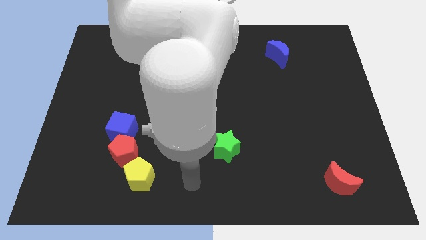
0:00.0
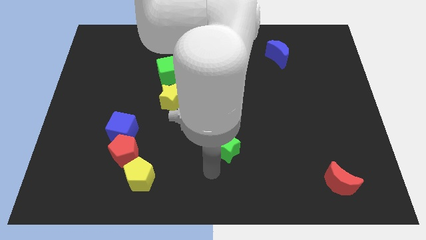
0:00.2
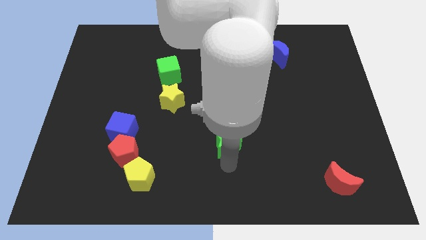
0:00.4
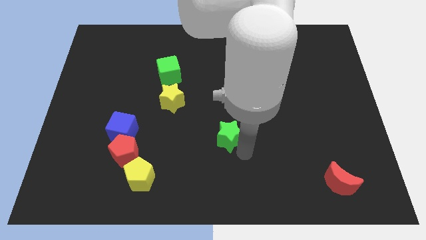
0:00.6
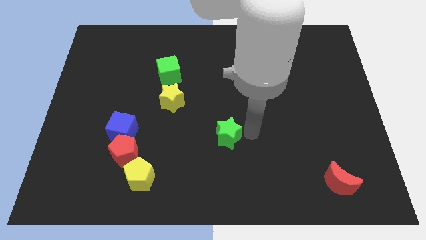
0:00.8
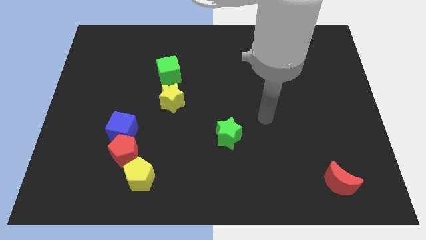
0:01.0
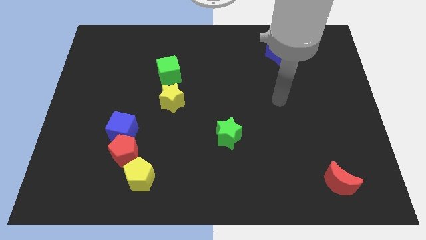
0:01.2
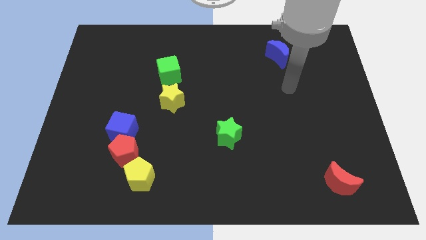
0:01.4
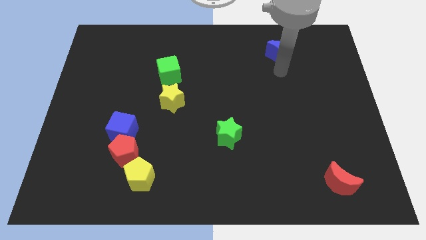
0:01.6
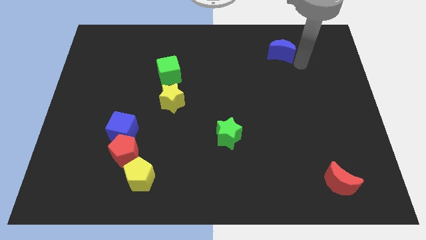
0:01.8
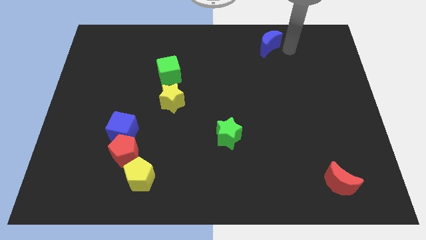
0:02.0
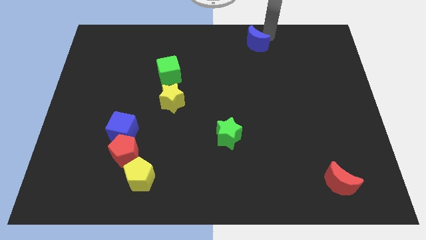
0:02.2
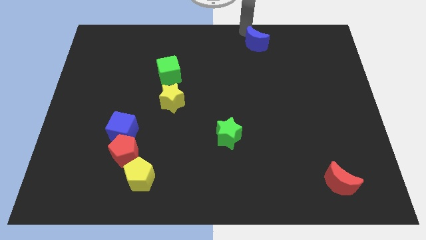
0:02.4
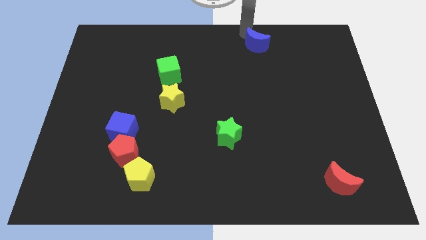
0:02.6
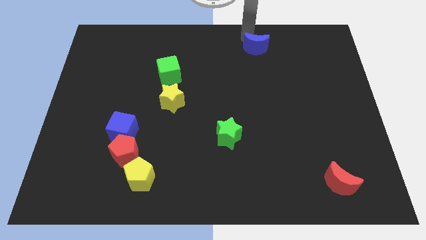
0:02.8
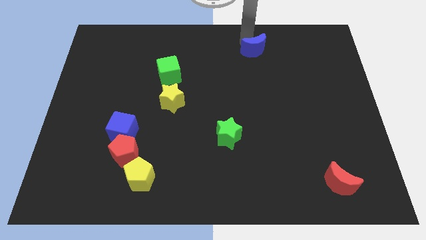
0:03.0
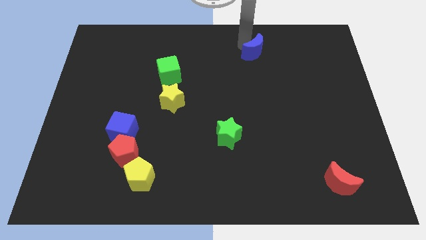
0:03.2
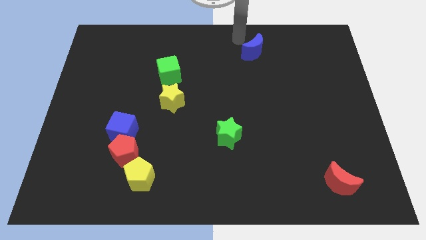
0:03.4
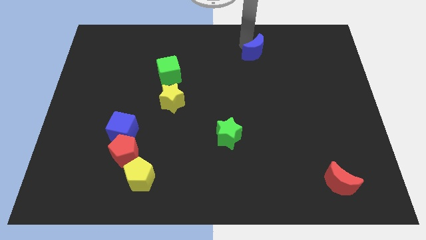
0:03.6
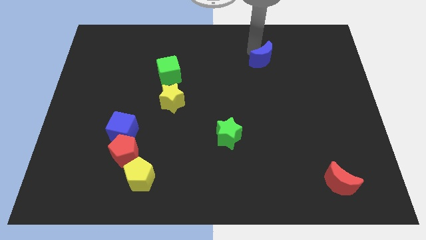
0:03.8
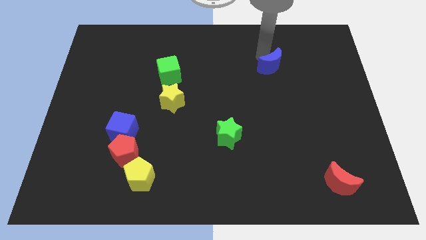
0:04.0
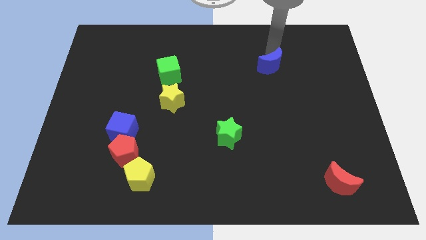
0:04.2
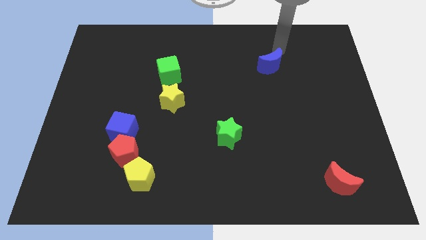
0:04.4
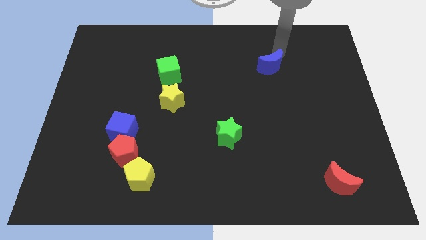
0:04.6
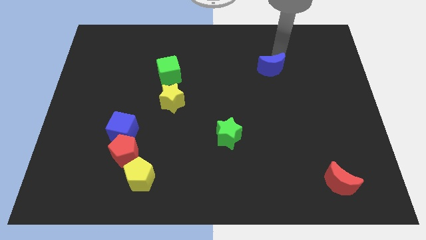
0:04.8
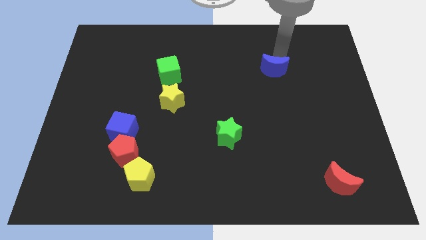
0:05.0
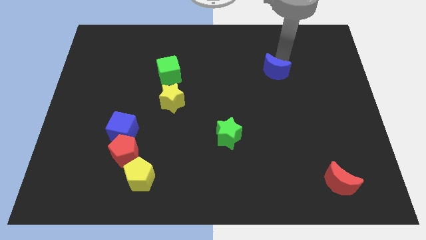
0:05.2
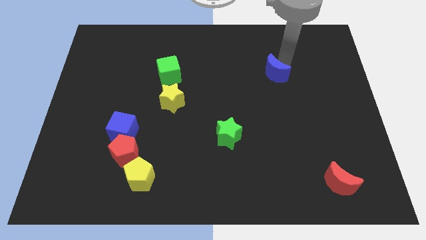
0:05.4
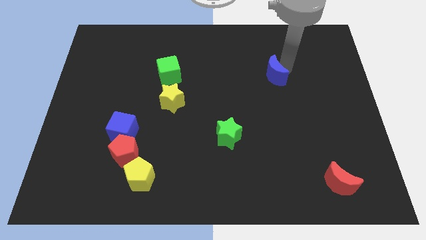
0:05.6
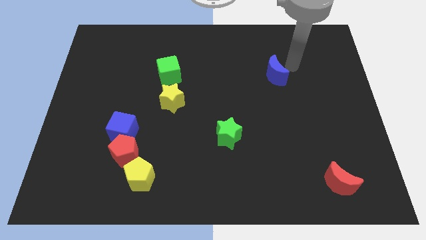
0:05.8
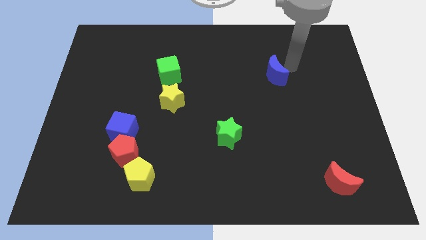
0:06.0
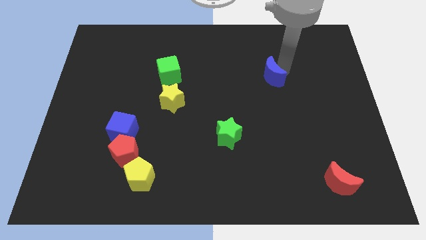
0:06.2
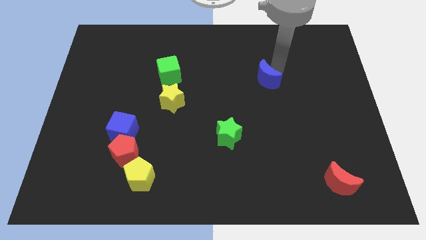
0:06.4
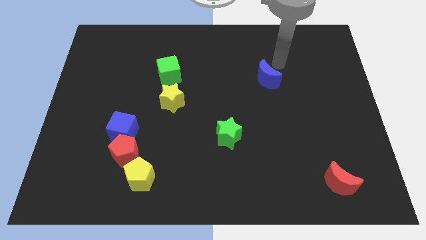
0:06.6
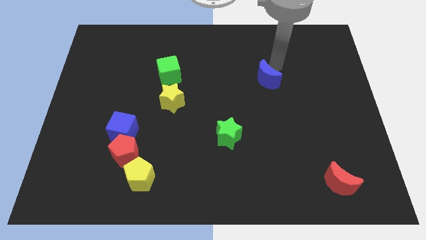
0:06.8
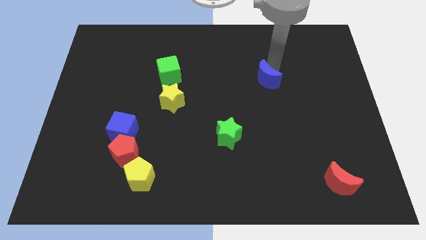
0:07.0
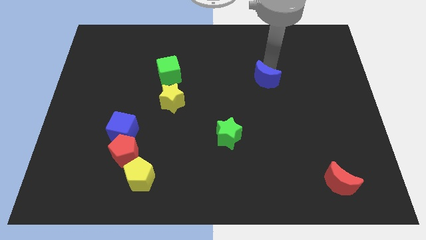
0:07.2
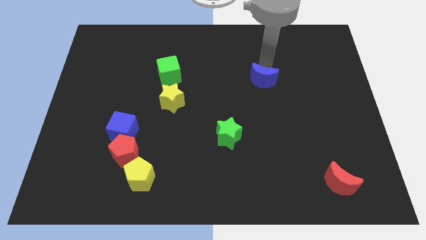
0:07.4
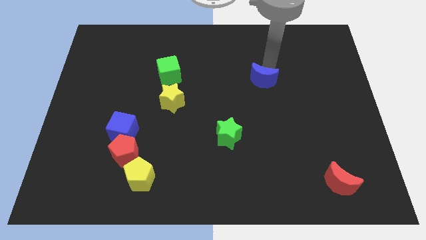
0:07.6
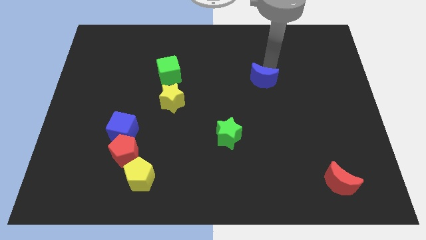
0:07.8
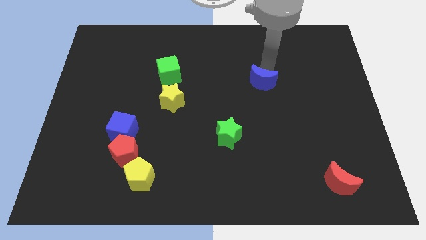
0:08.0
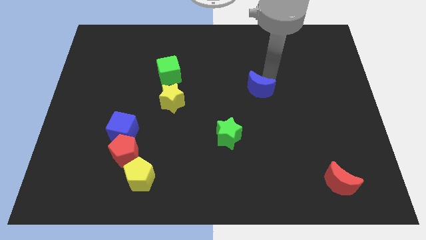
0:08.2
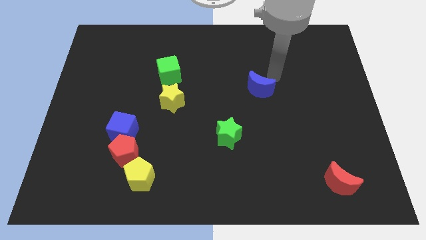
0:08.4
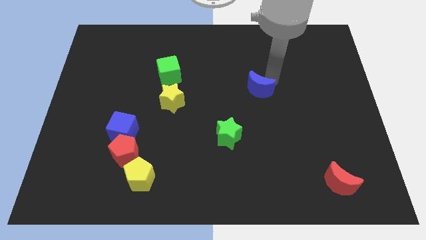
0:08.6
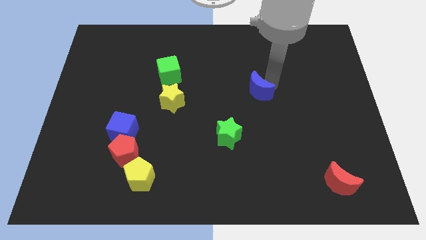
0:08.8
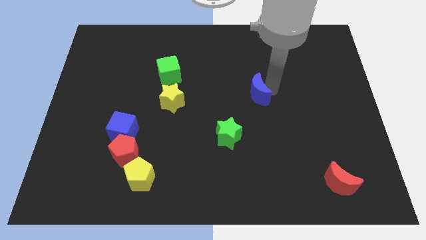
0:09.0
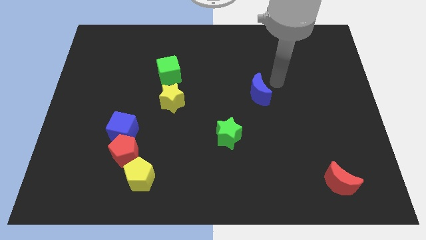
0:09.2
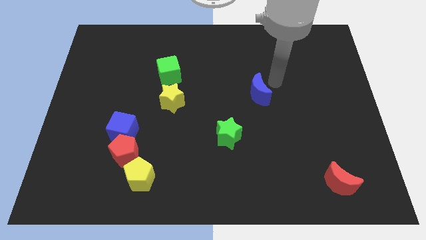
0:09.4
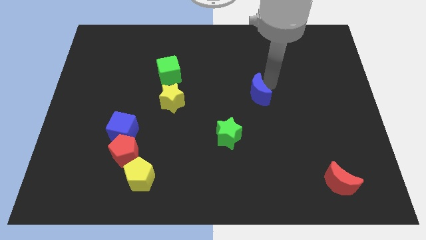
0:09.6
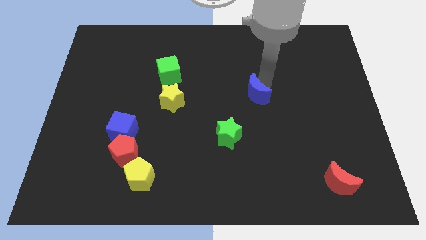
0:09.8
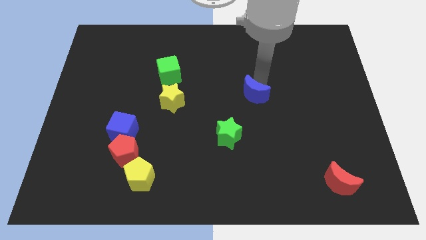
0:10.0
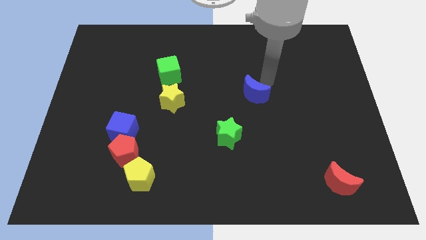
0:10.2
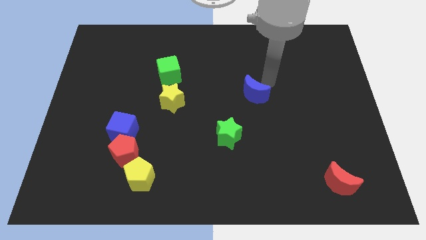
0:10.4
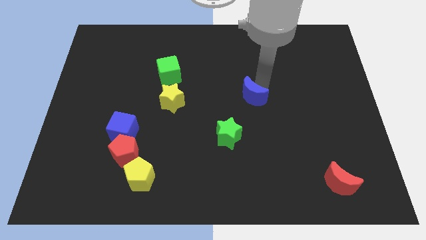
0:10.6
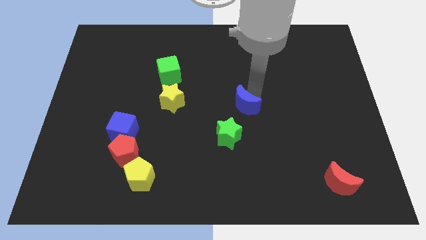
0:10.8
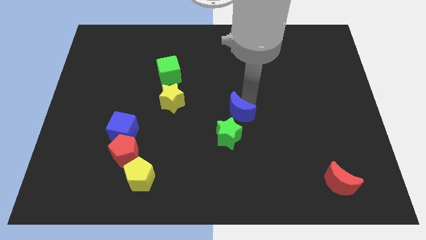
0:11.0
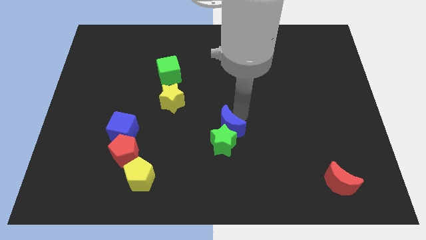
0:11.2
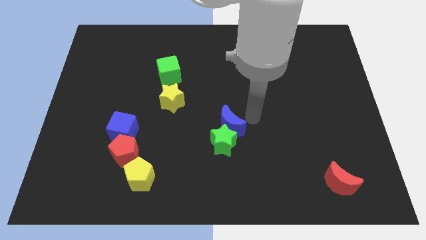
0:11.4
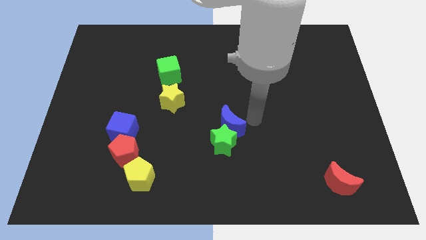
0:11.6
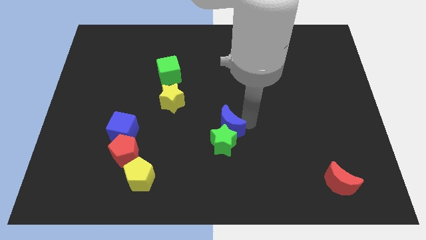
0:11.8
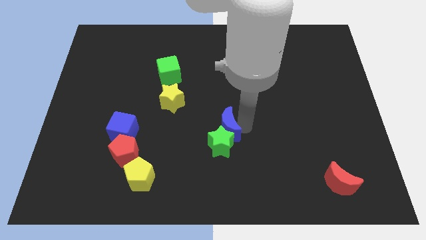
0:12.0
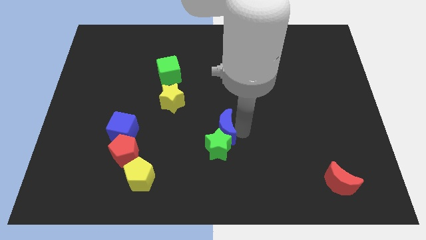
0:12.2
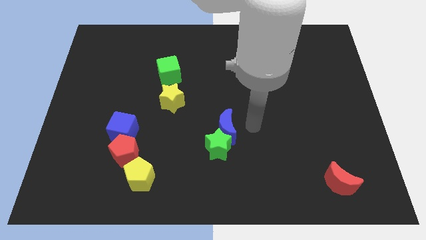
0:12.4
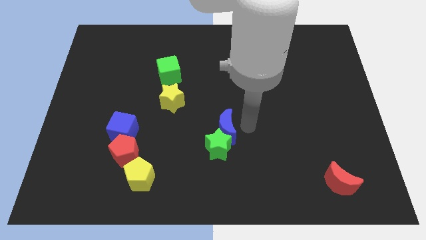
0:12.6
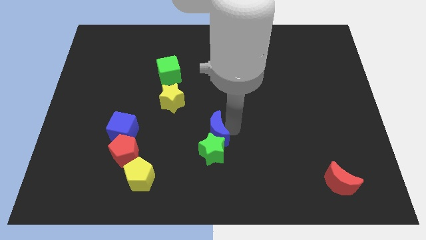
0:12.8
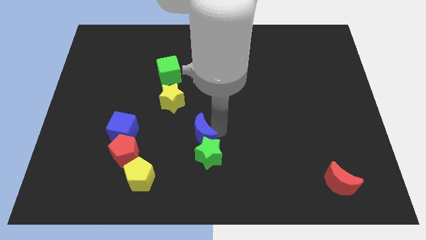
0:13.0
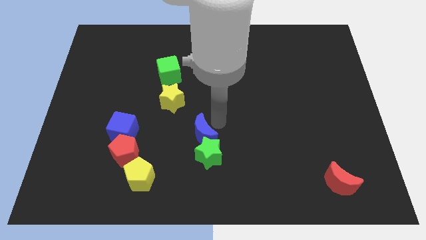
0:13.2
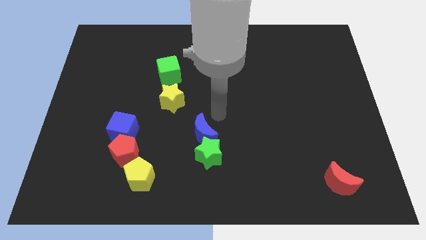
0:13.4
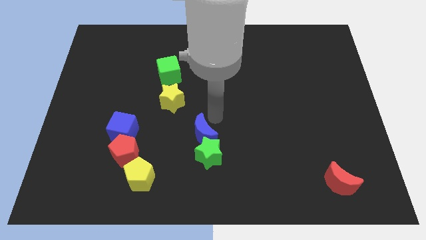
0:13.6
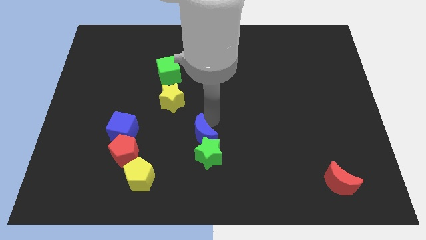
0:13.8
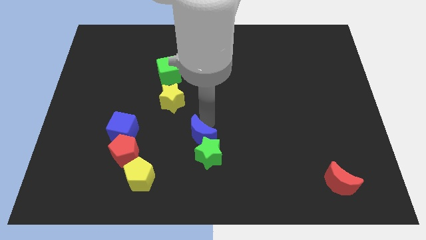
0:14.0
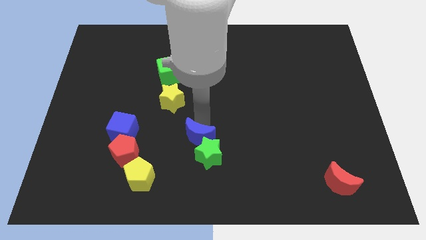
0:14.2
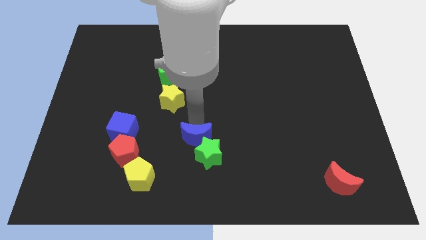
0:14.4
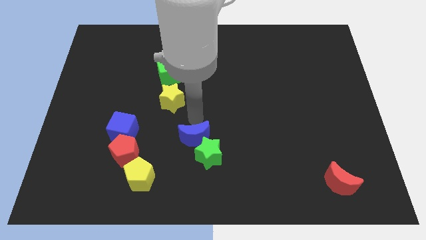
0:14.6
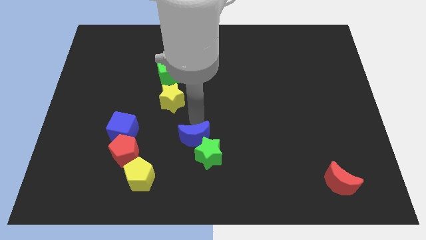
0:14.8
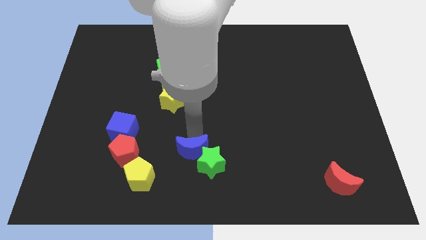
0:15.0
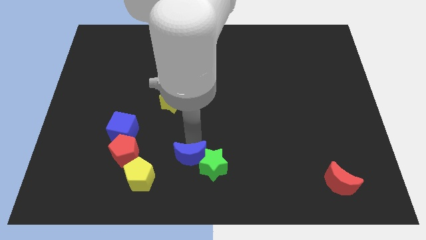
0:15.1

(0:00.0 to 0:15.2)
move the blue moon to the right of the yellow pentagon
